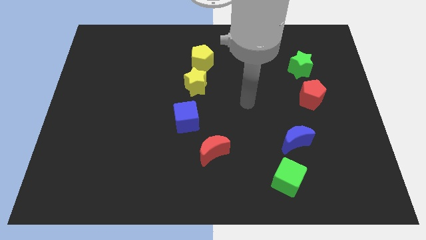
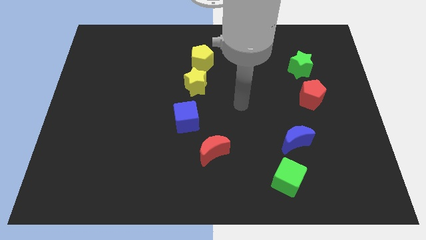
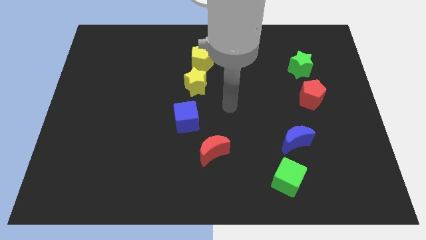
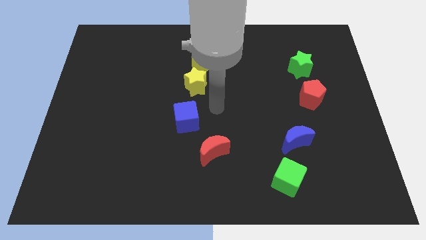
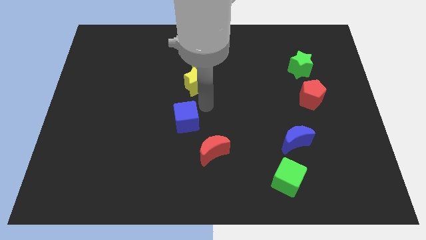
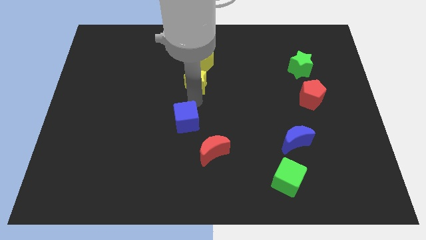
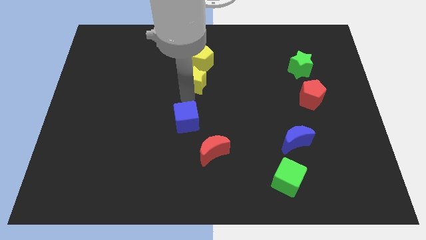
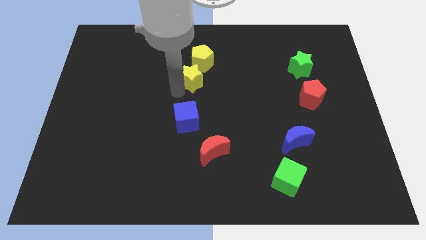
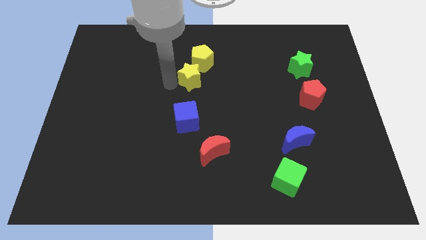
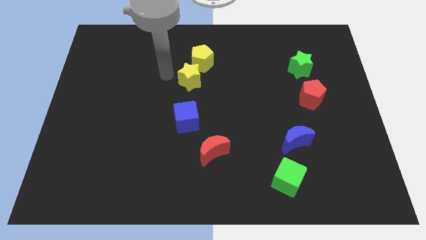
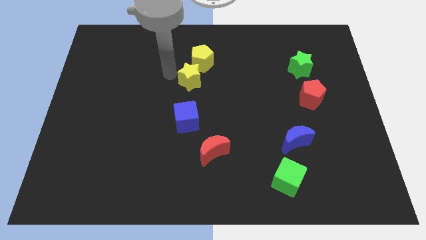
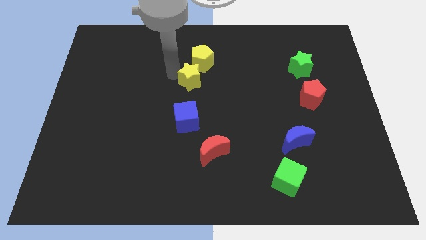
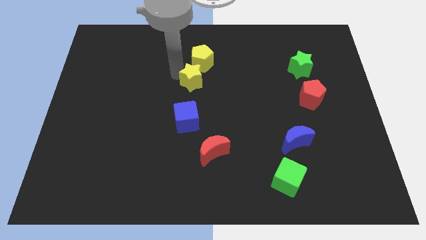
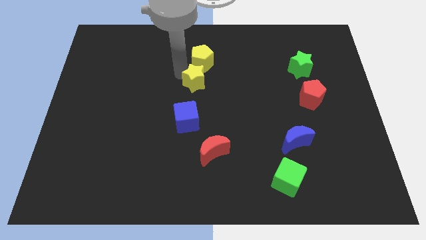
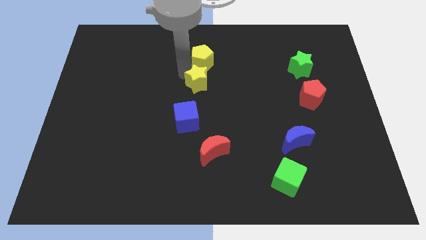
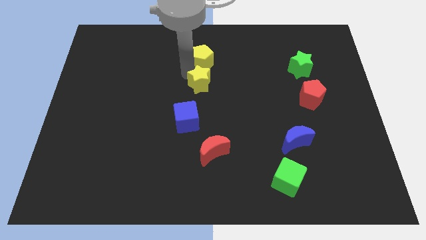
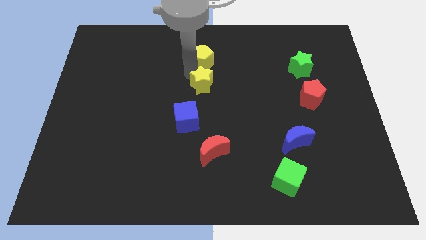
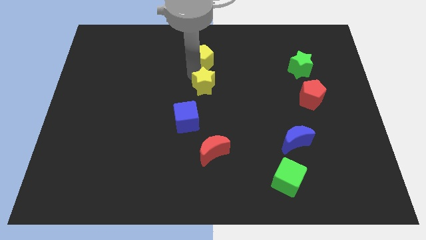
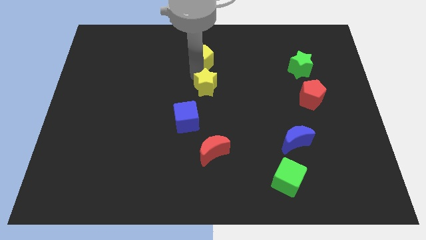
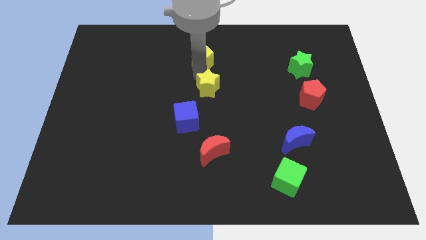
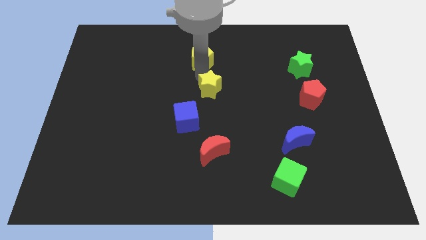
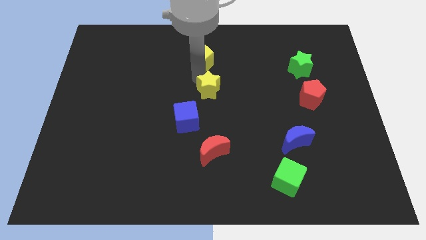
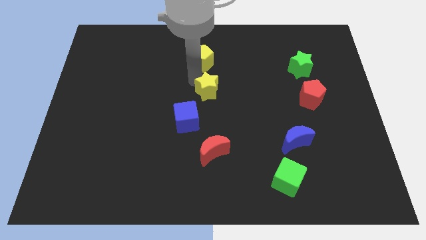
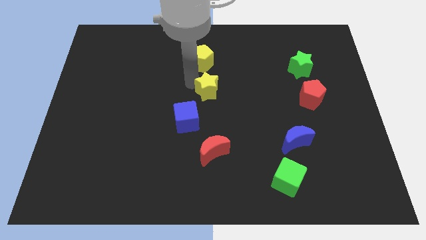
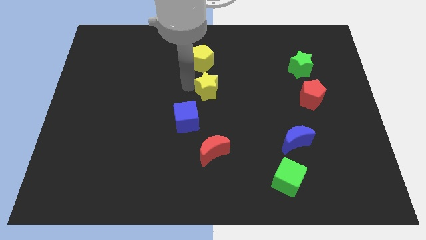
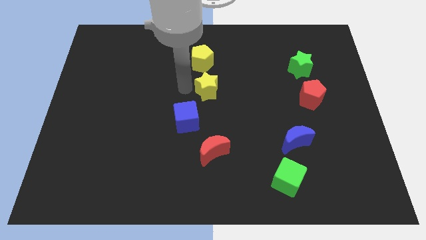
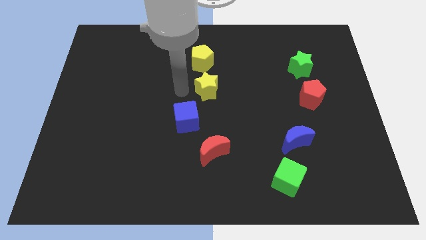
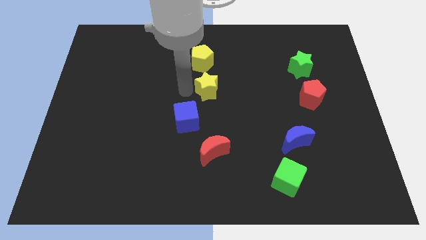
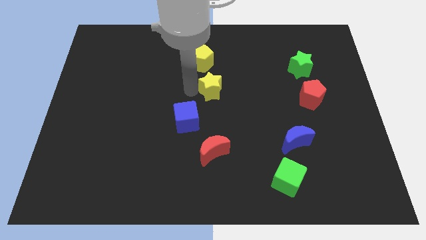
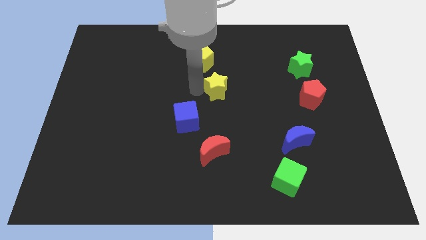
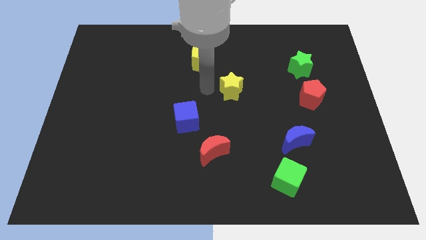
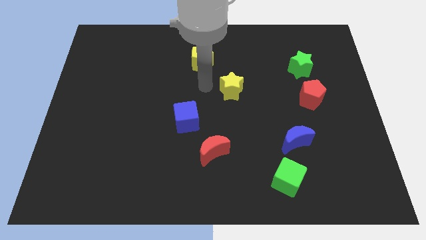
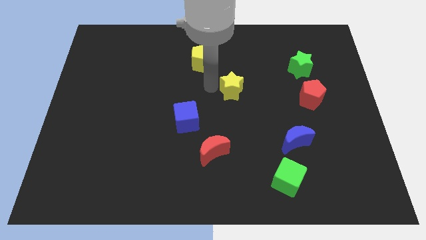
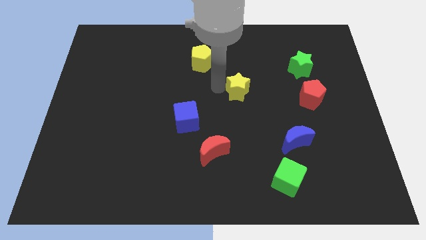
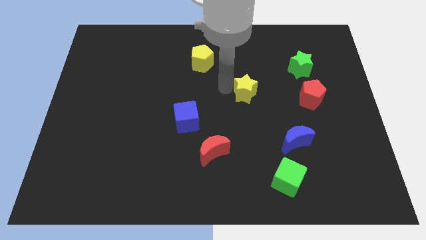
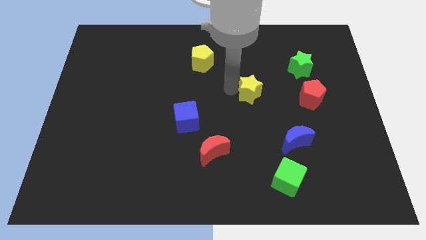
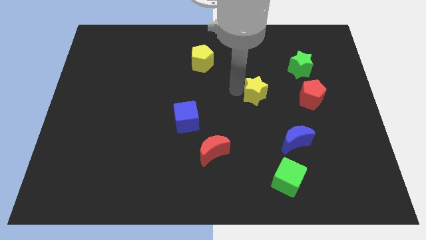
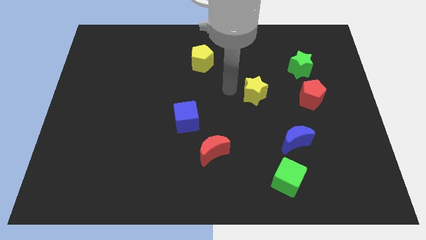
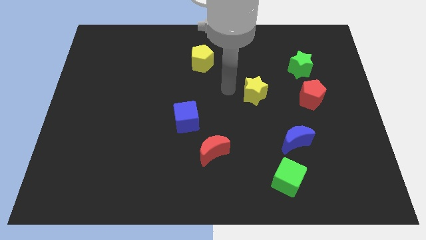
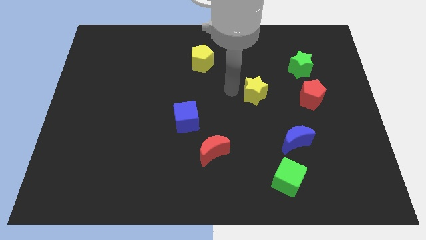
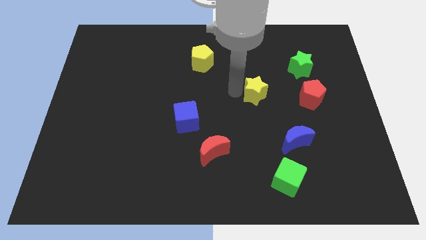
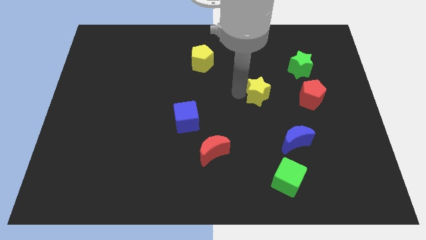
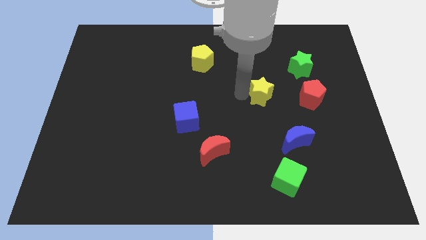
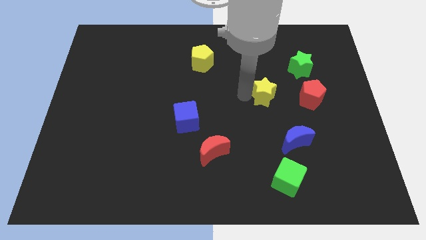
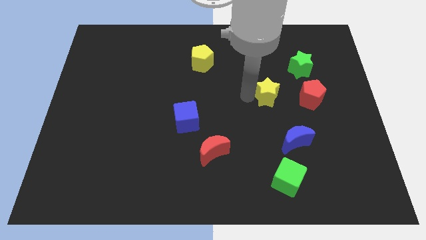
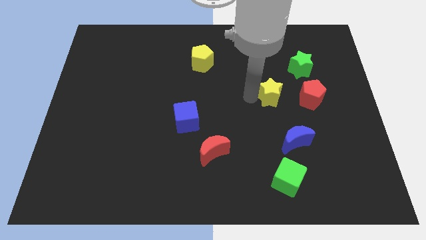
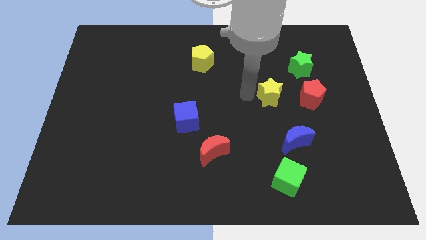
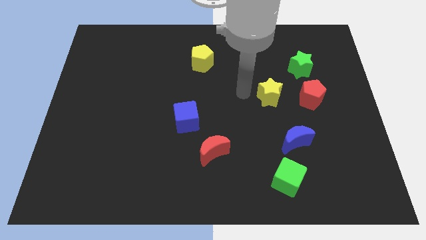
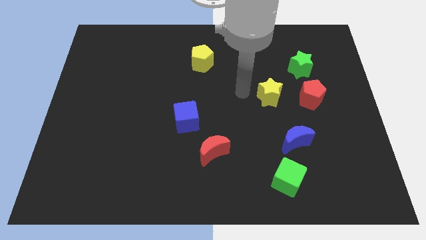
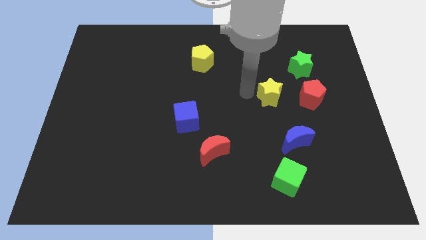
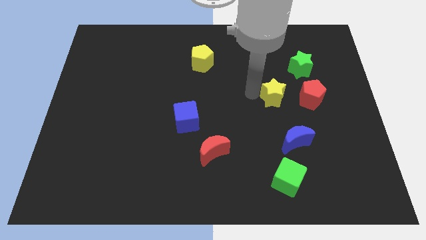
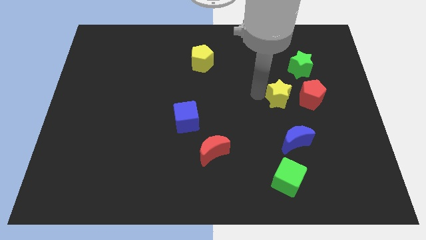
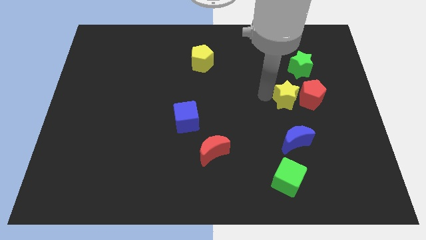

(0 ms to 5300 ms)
slide the yellow star towards the red pentagon

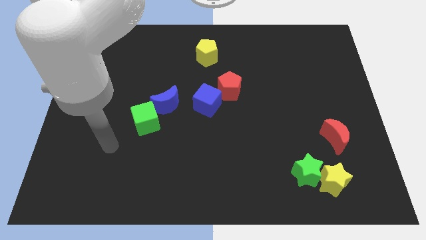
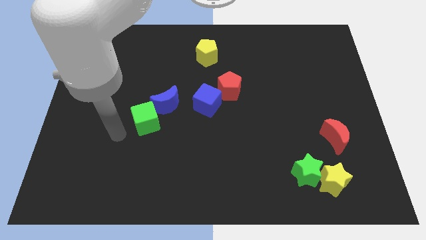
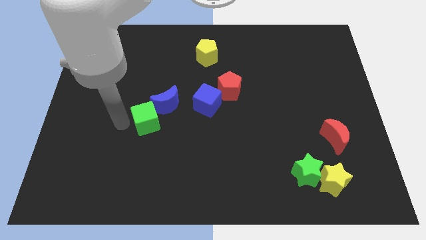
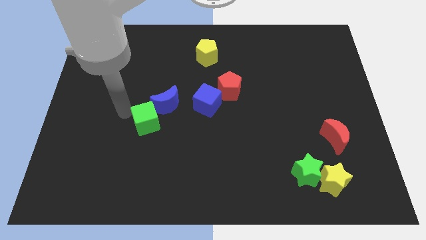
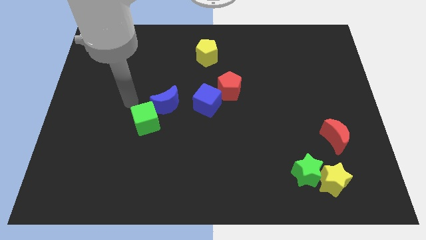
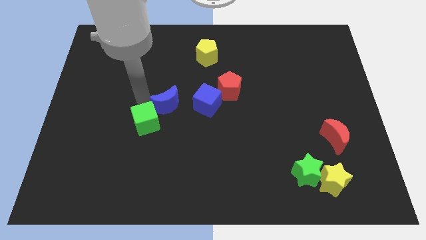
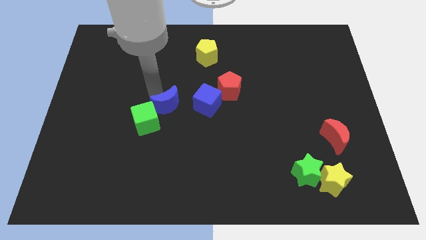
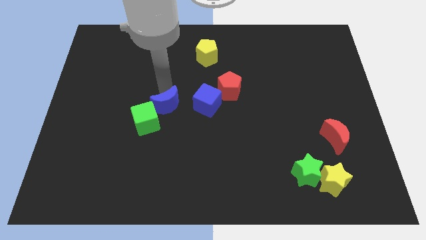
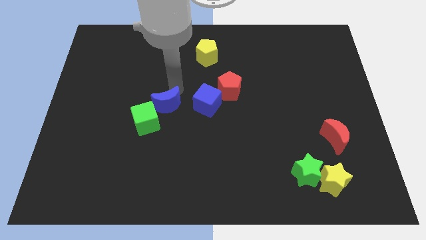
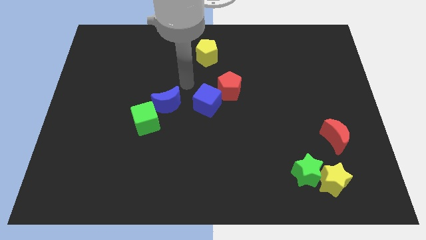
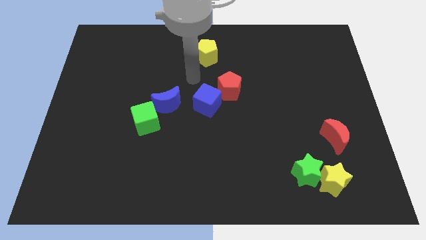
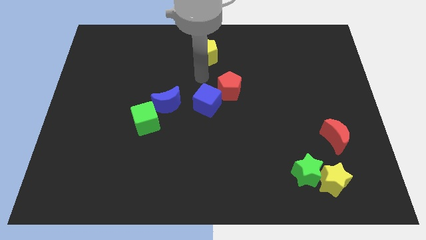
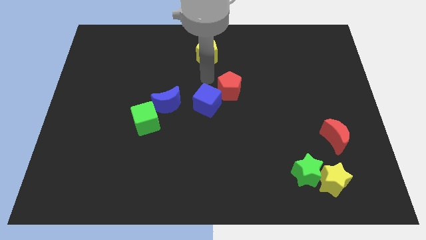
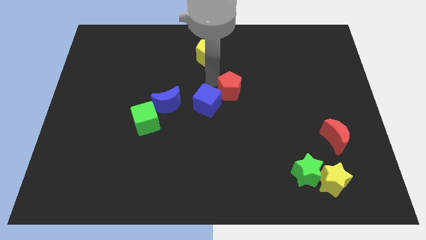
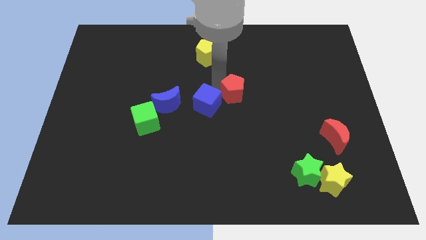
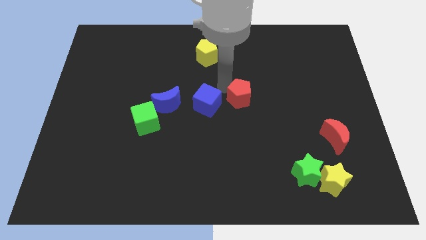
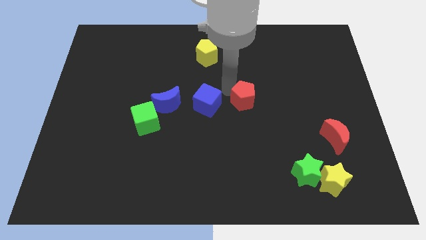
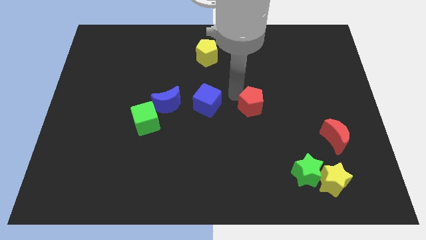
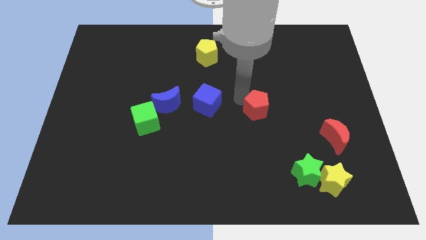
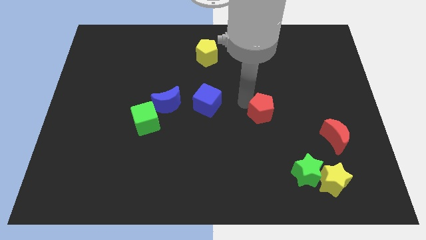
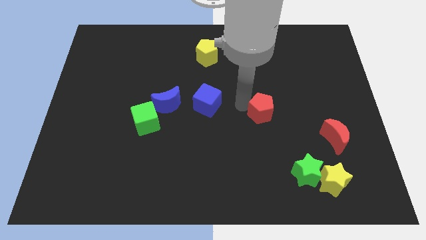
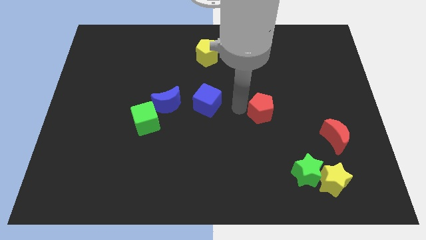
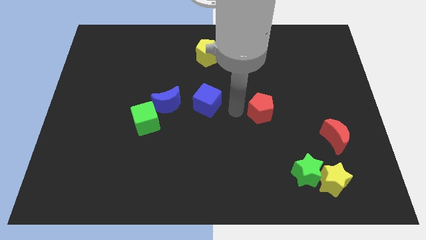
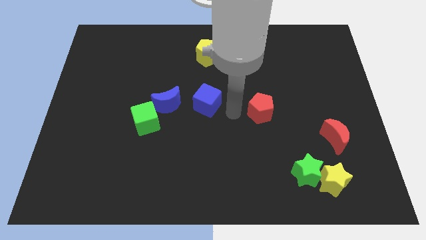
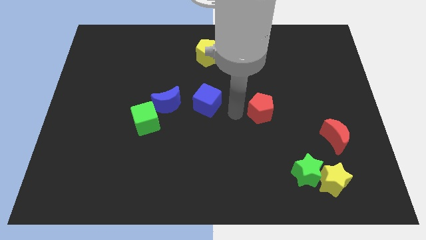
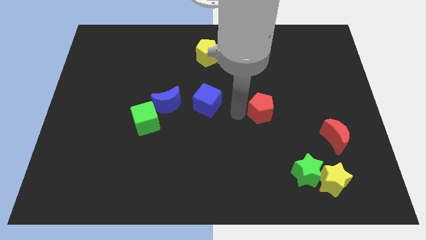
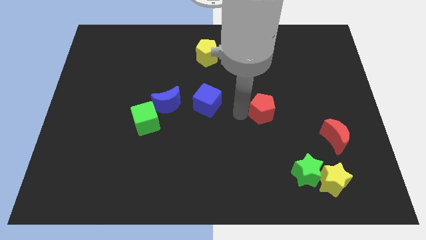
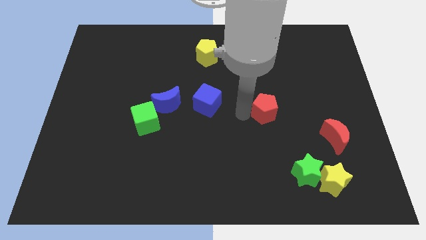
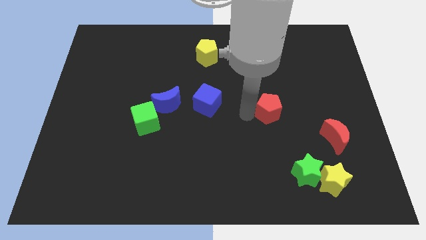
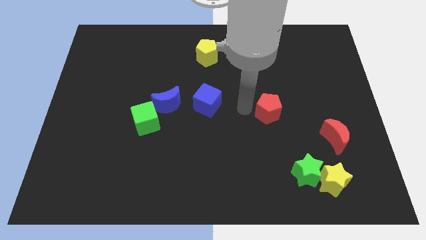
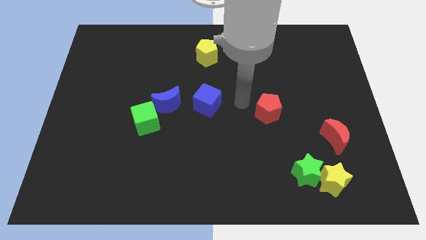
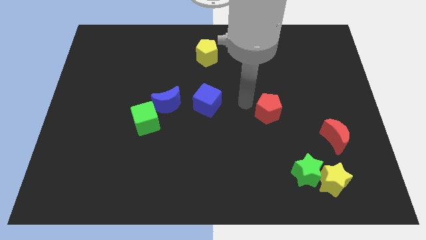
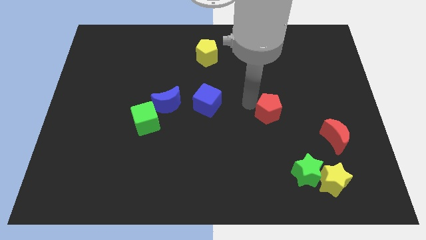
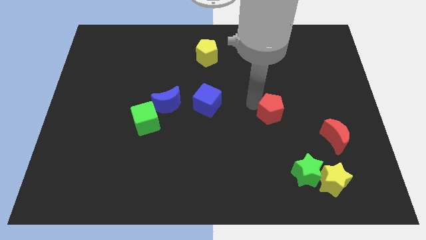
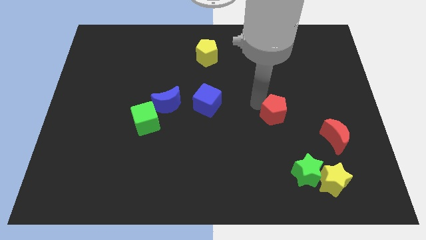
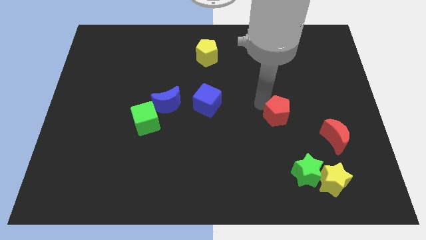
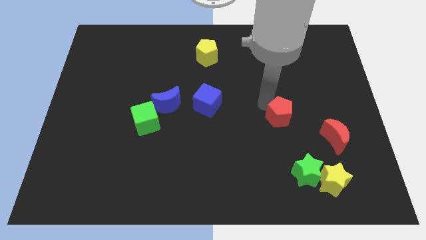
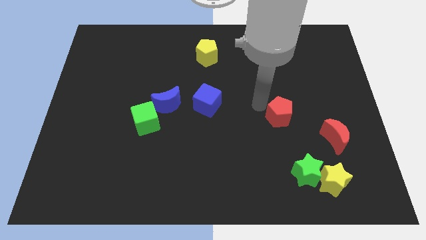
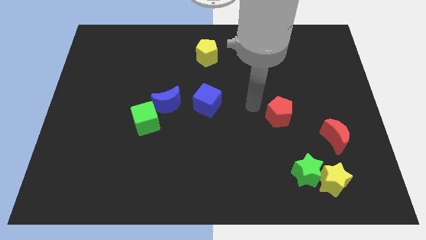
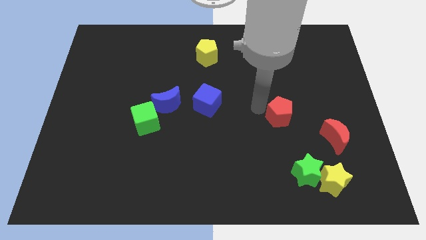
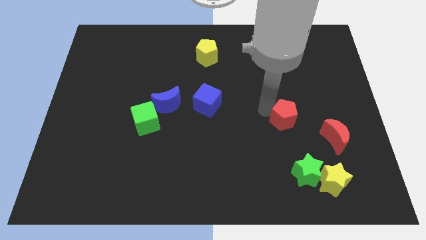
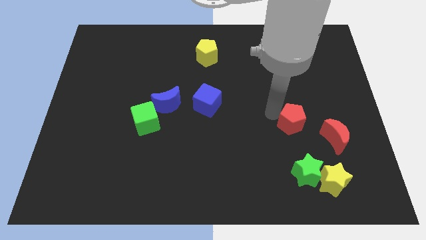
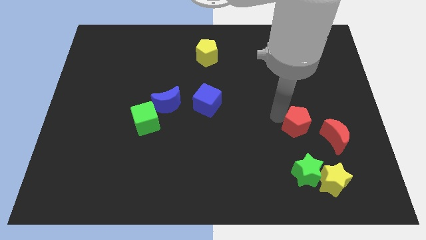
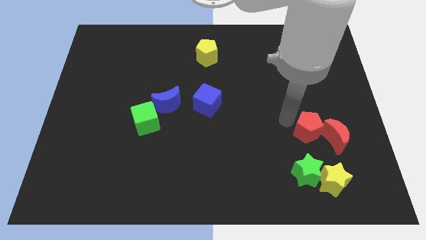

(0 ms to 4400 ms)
move the red pentagon towards the red moon
